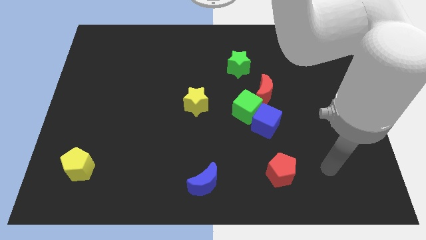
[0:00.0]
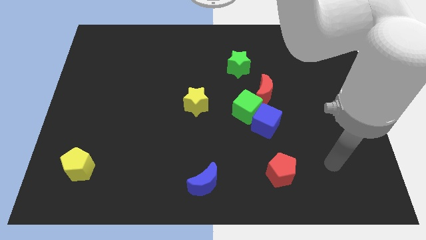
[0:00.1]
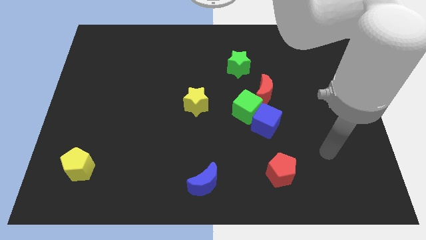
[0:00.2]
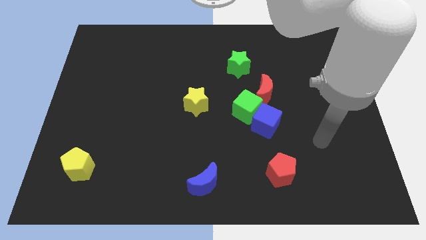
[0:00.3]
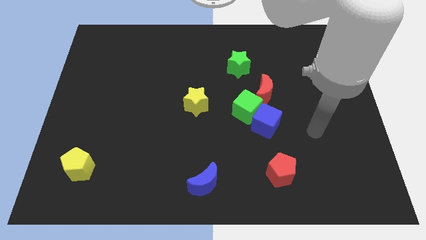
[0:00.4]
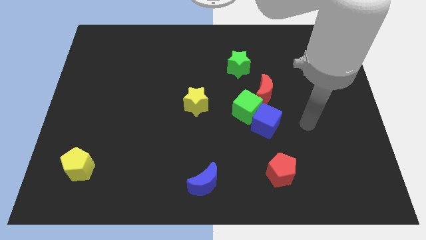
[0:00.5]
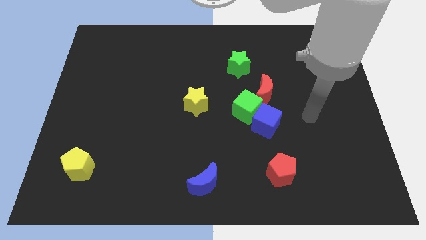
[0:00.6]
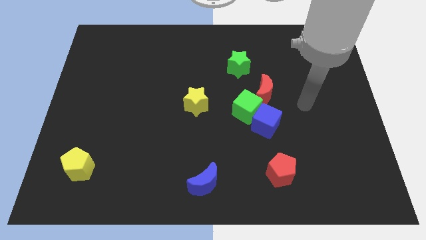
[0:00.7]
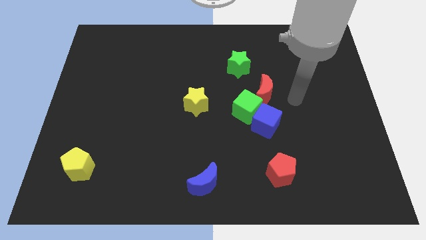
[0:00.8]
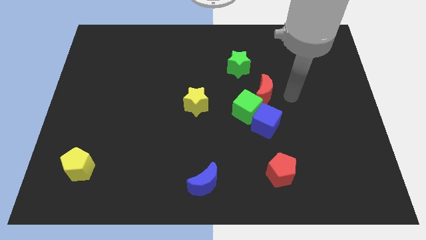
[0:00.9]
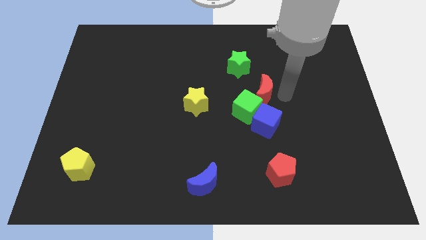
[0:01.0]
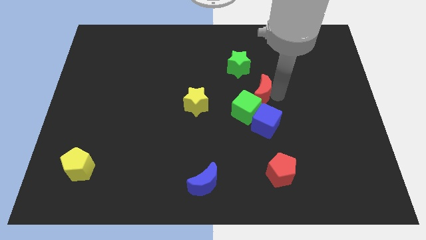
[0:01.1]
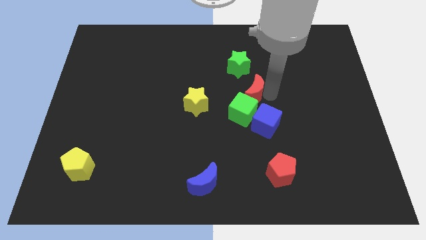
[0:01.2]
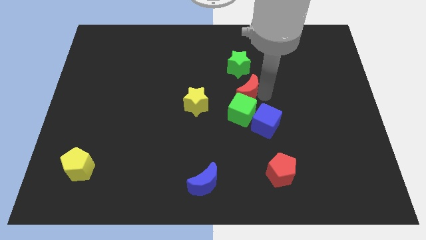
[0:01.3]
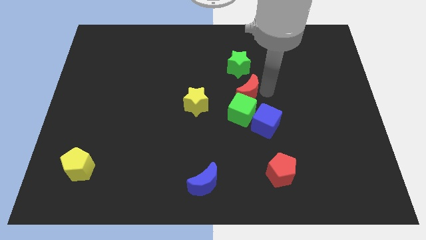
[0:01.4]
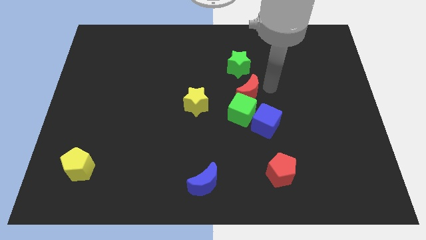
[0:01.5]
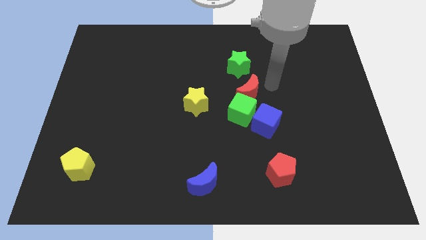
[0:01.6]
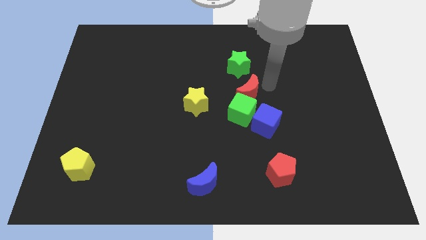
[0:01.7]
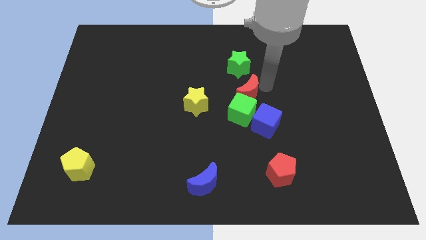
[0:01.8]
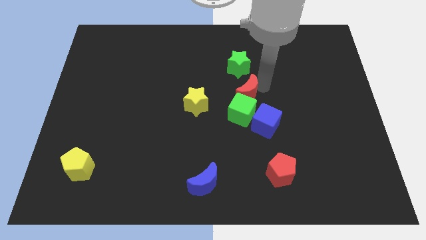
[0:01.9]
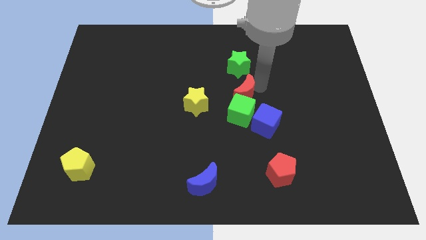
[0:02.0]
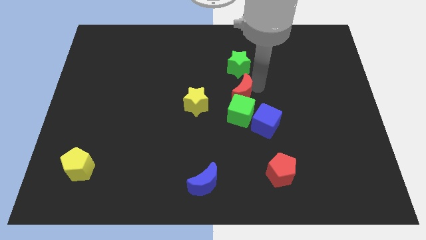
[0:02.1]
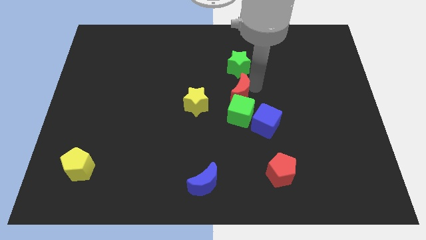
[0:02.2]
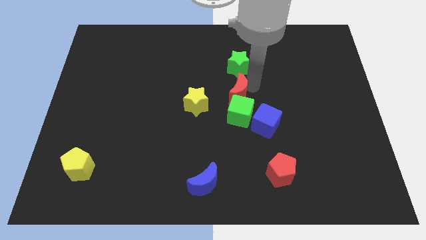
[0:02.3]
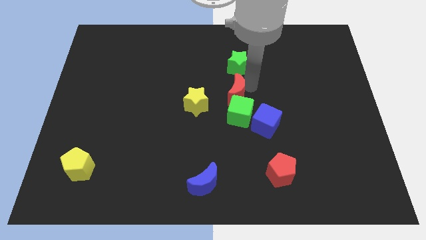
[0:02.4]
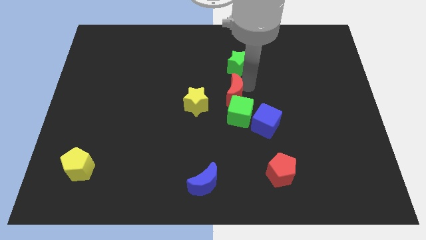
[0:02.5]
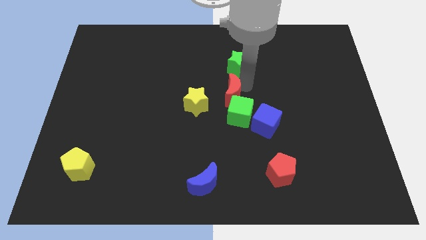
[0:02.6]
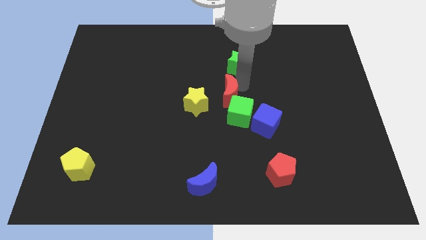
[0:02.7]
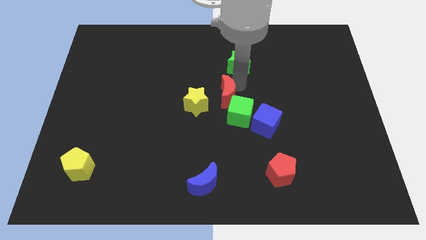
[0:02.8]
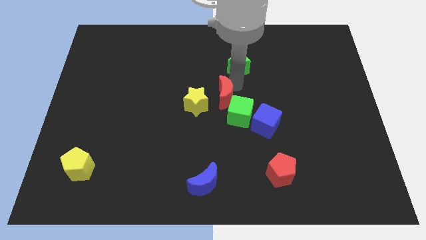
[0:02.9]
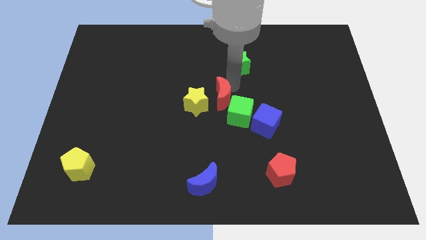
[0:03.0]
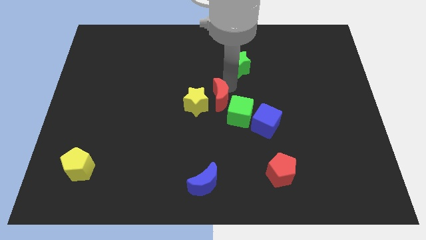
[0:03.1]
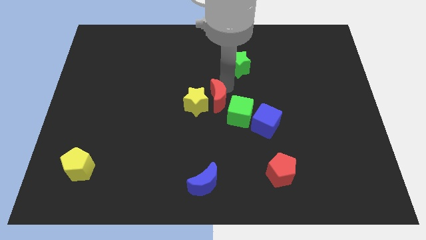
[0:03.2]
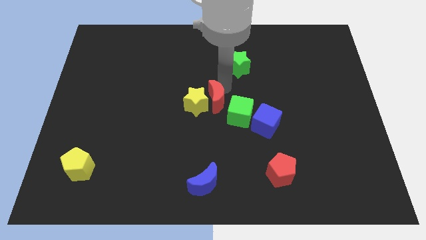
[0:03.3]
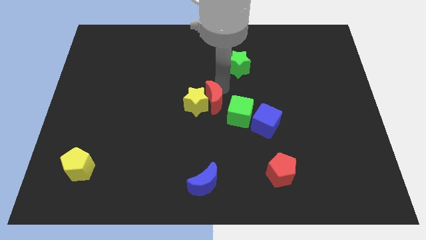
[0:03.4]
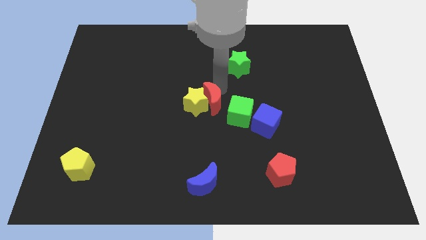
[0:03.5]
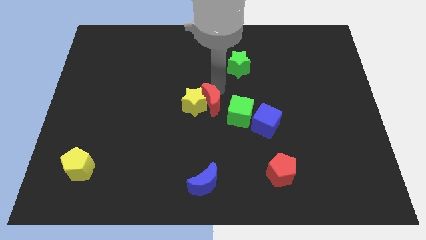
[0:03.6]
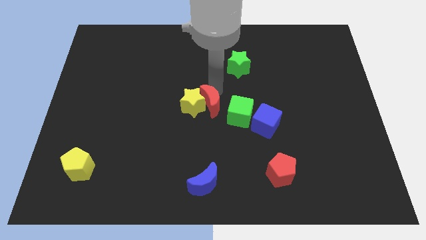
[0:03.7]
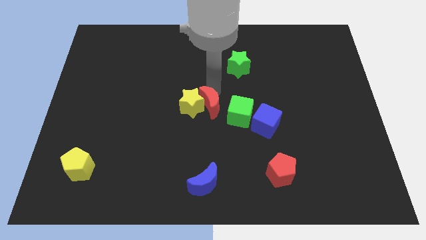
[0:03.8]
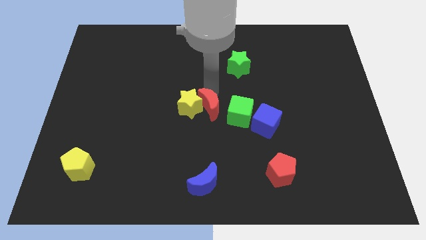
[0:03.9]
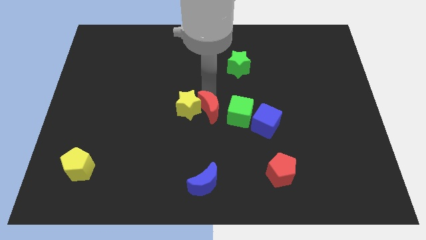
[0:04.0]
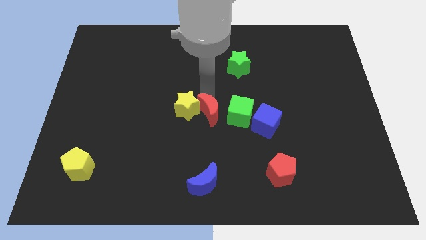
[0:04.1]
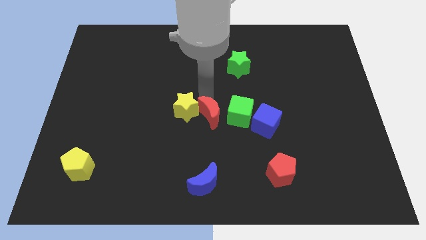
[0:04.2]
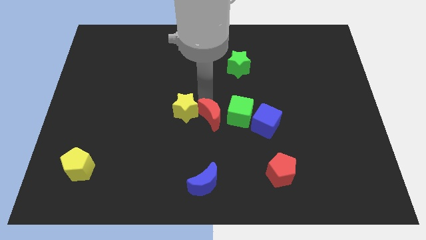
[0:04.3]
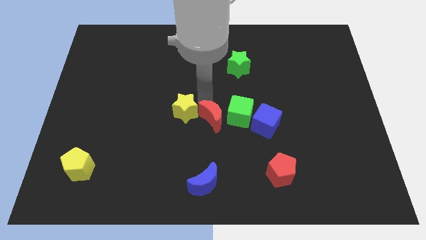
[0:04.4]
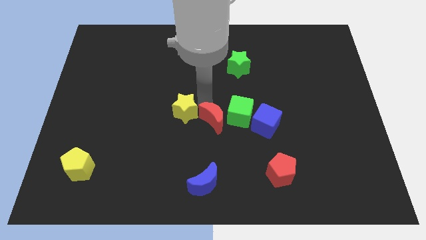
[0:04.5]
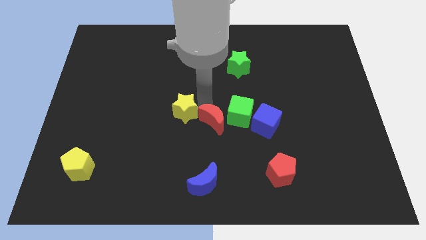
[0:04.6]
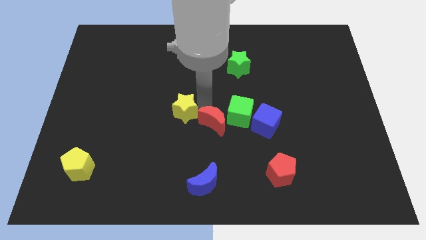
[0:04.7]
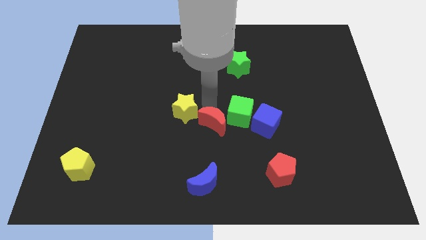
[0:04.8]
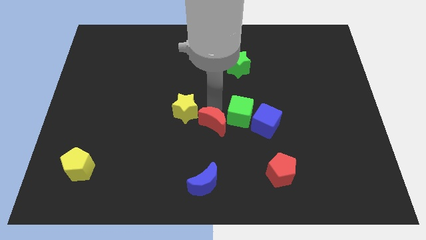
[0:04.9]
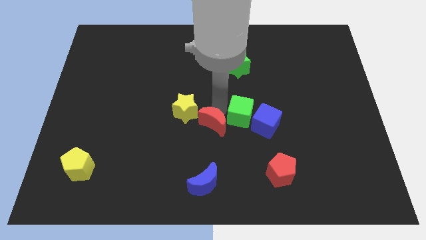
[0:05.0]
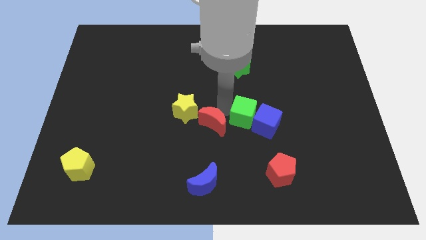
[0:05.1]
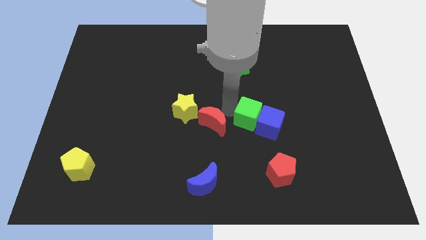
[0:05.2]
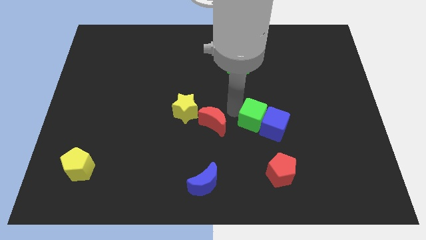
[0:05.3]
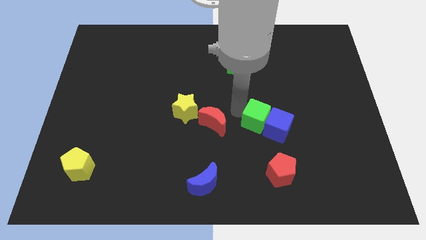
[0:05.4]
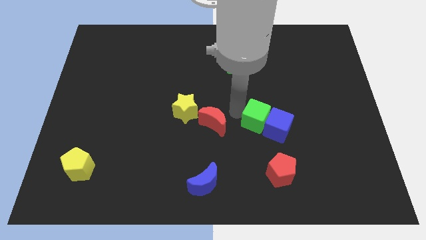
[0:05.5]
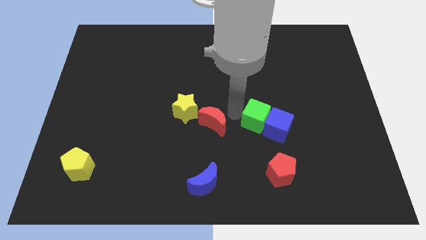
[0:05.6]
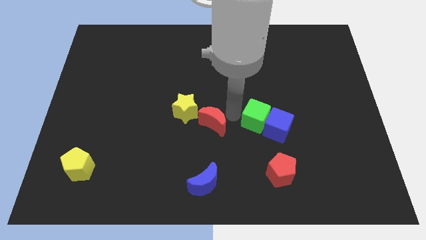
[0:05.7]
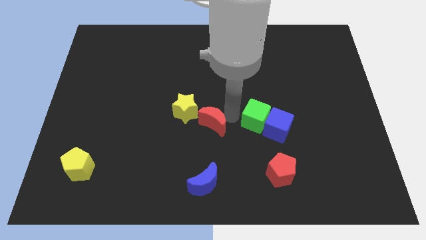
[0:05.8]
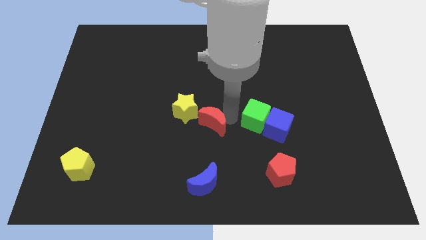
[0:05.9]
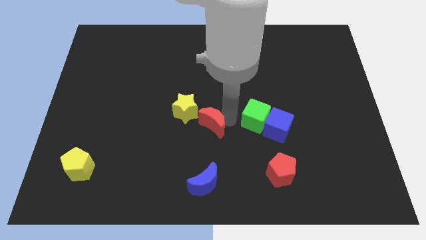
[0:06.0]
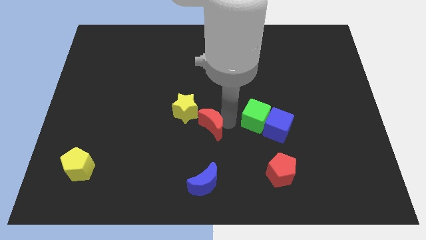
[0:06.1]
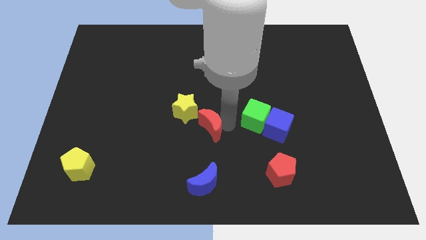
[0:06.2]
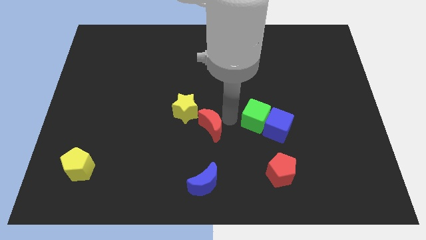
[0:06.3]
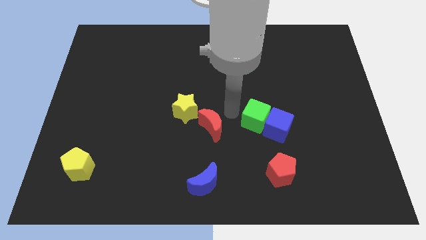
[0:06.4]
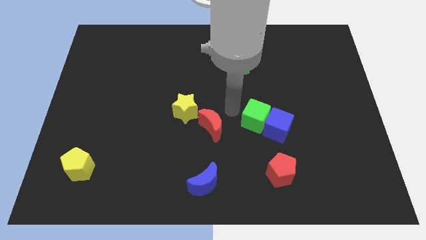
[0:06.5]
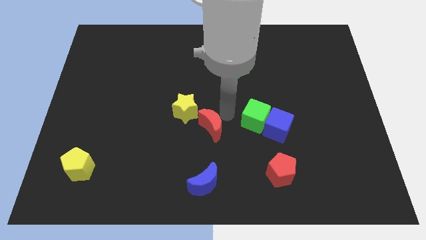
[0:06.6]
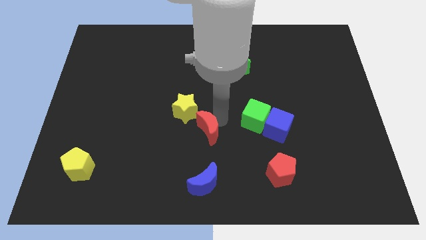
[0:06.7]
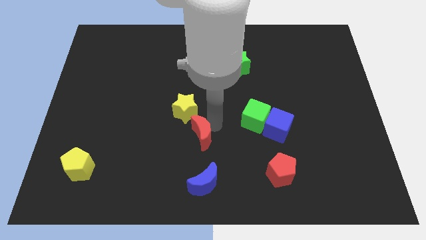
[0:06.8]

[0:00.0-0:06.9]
slide the red moon to the bottom side of the yellow star
